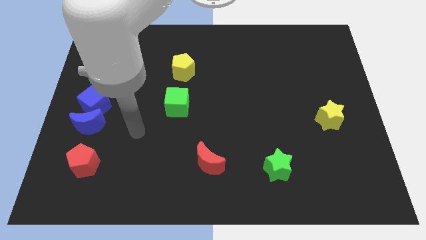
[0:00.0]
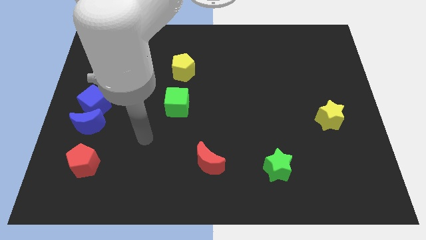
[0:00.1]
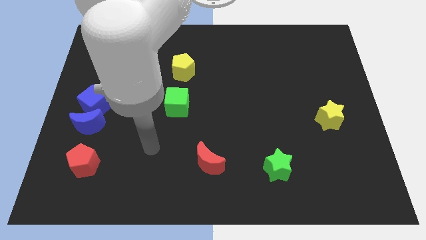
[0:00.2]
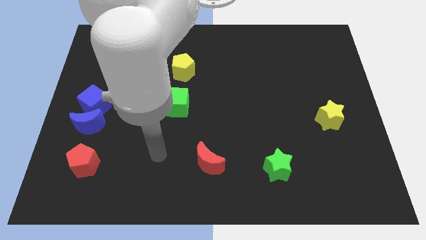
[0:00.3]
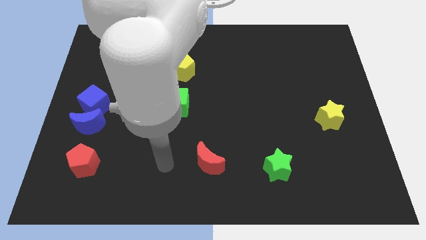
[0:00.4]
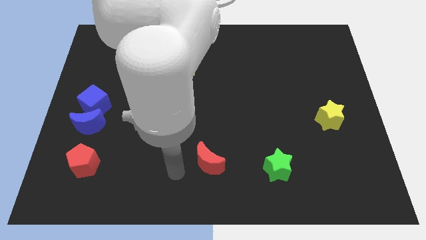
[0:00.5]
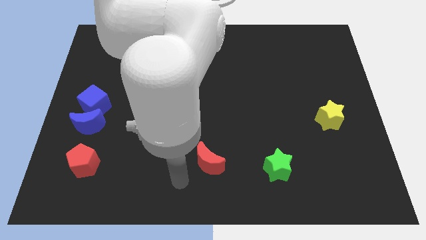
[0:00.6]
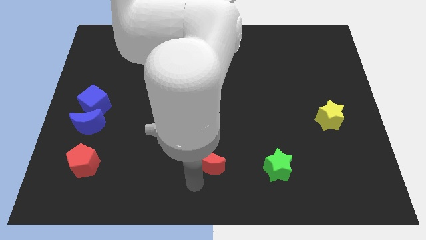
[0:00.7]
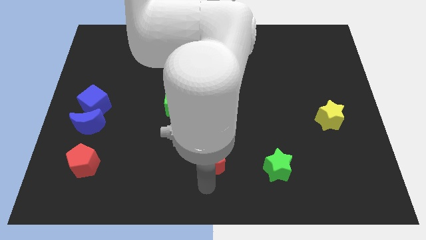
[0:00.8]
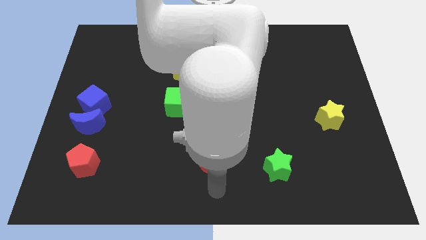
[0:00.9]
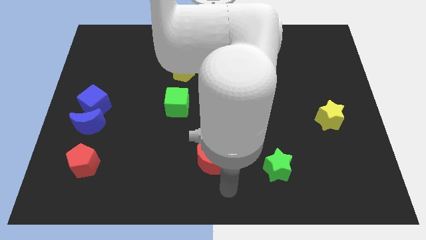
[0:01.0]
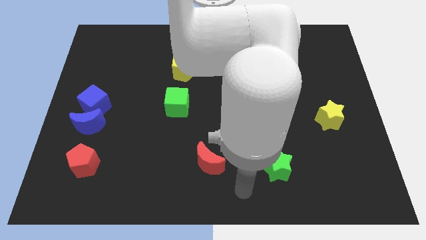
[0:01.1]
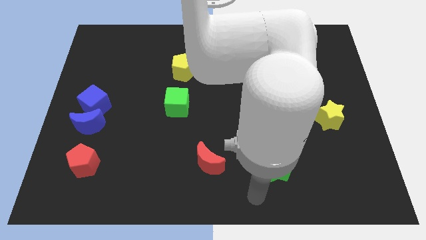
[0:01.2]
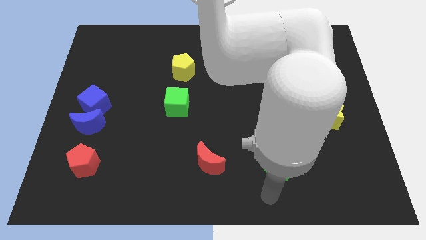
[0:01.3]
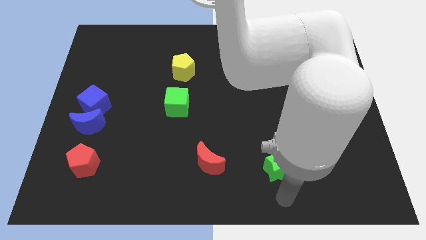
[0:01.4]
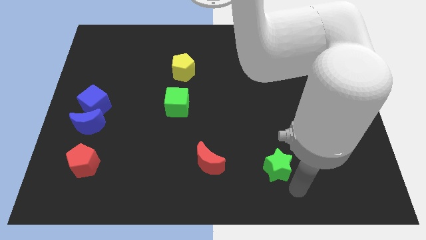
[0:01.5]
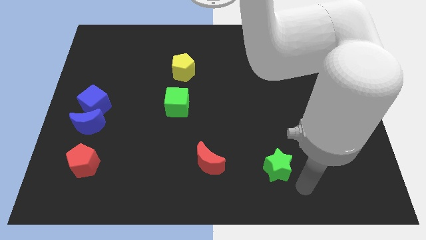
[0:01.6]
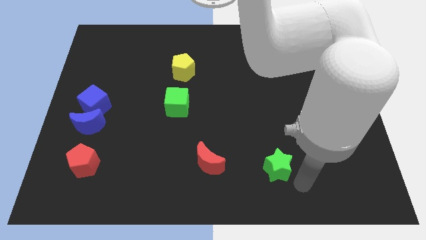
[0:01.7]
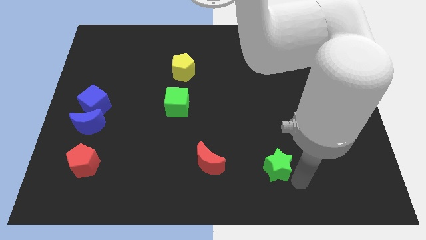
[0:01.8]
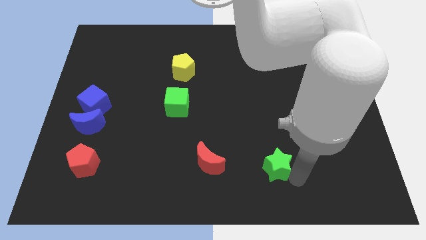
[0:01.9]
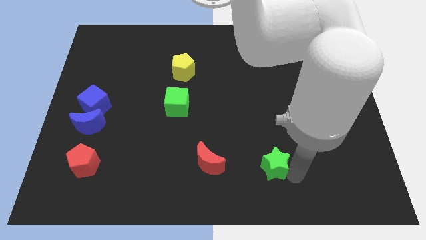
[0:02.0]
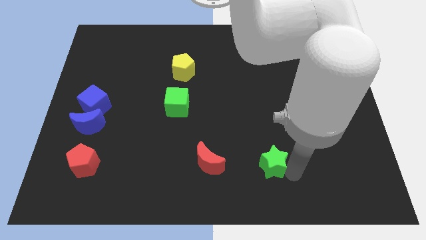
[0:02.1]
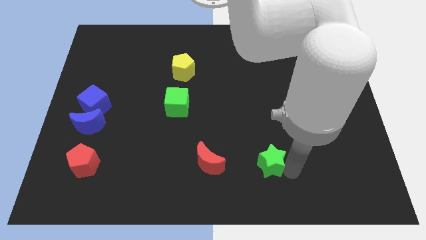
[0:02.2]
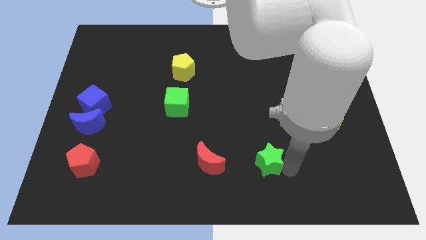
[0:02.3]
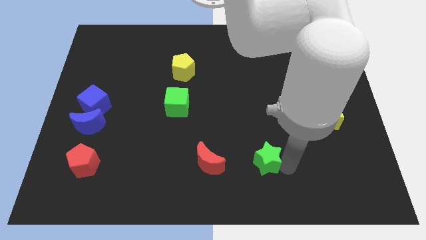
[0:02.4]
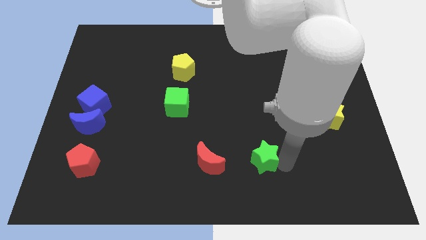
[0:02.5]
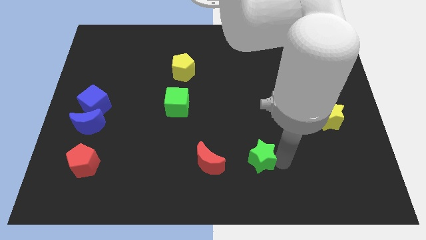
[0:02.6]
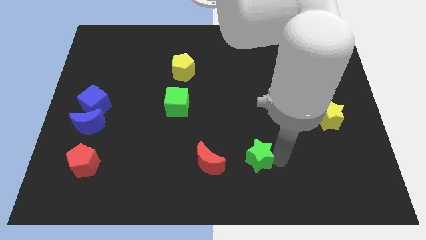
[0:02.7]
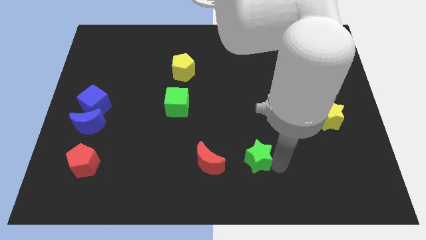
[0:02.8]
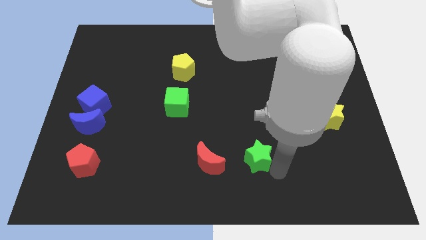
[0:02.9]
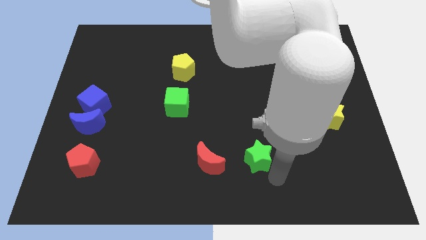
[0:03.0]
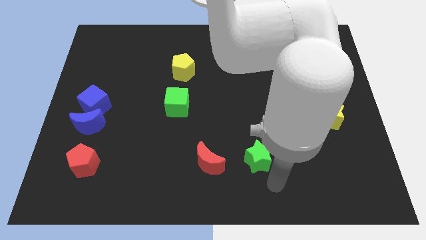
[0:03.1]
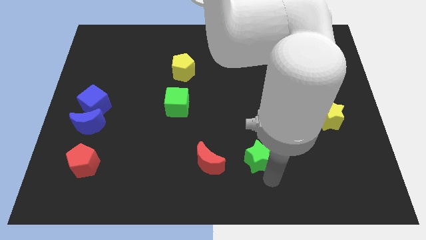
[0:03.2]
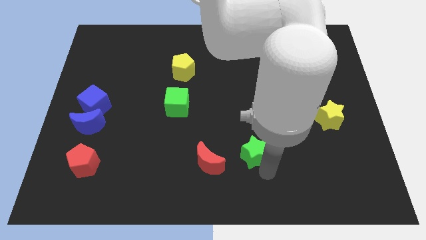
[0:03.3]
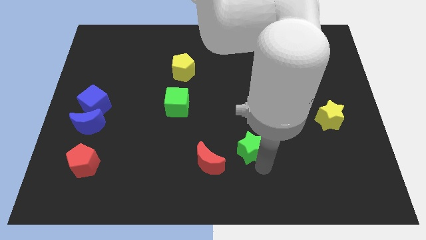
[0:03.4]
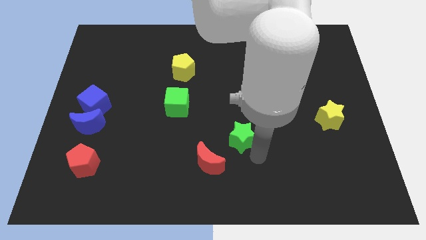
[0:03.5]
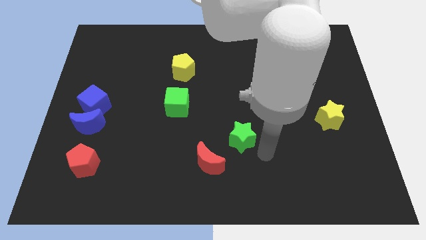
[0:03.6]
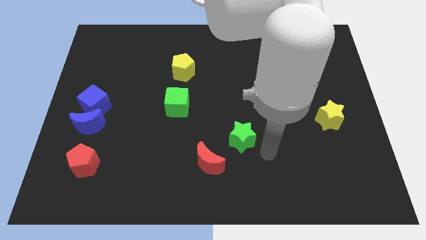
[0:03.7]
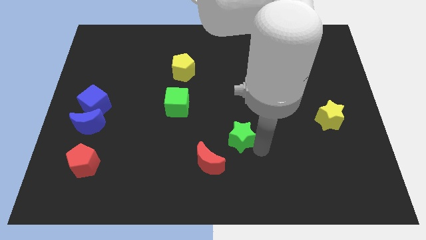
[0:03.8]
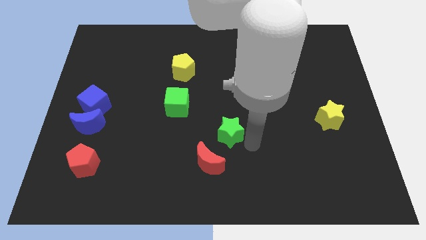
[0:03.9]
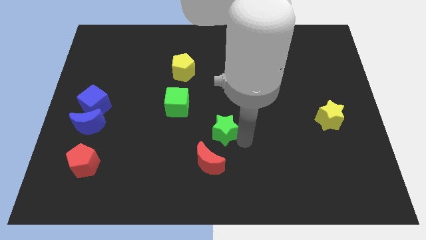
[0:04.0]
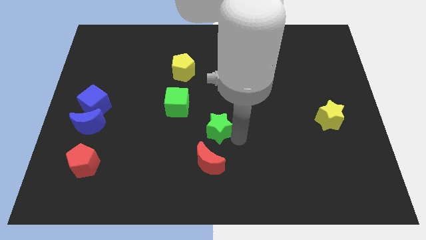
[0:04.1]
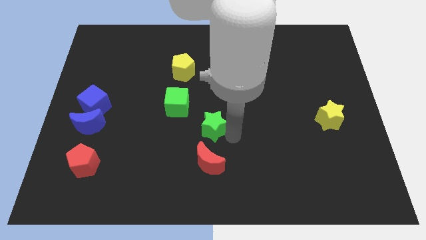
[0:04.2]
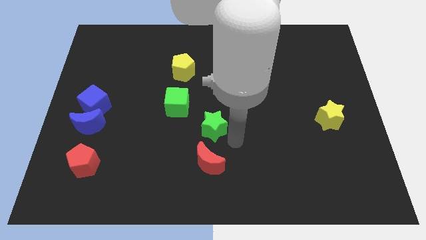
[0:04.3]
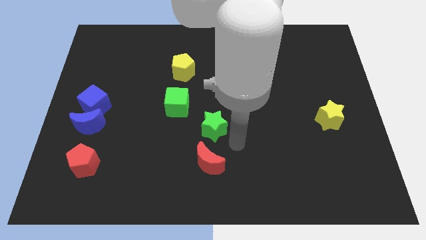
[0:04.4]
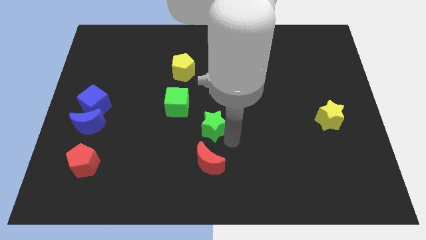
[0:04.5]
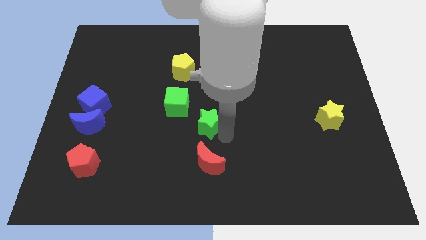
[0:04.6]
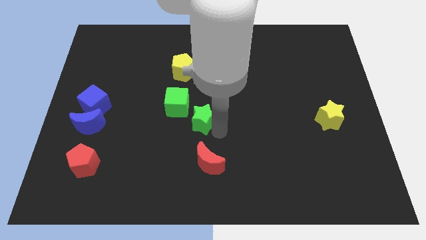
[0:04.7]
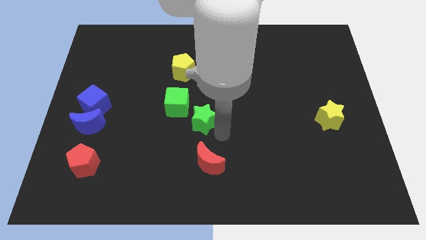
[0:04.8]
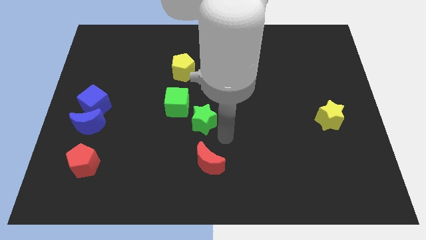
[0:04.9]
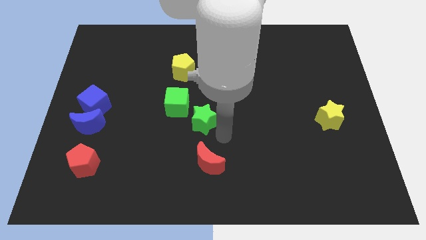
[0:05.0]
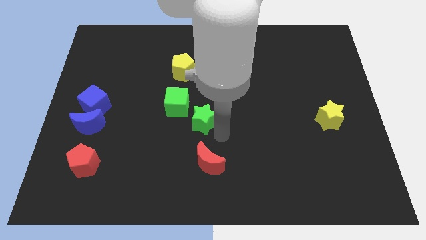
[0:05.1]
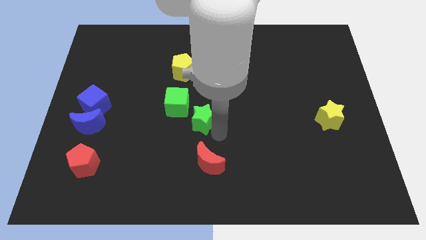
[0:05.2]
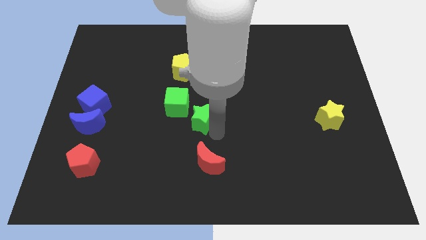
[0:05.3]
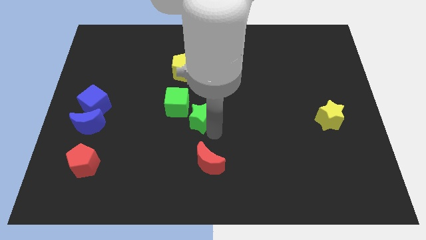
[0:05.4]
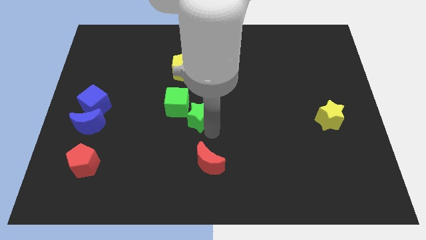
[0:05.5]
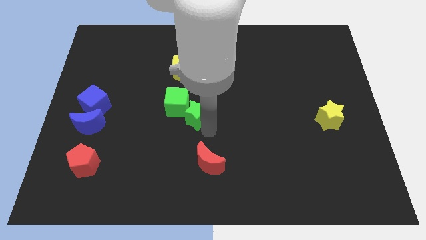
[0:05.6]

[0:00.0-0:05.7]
put the green star close to the green cube

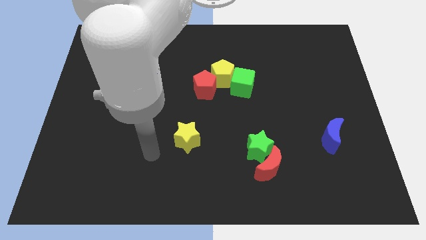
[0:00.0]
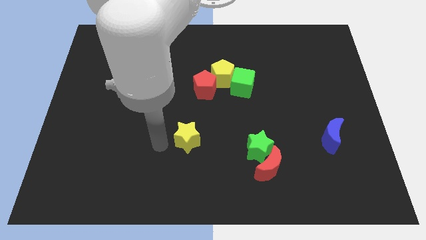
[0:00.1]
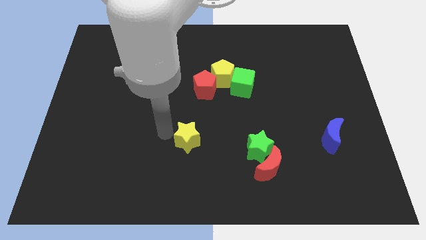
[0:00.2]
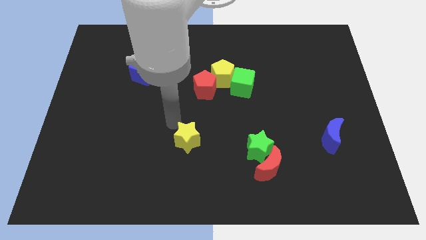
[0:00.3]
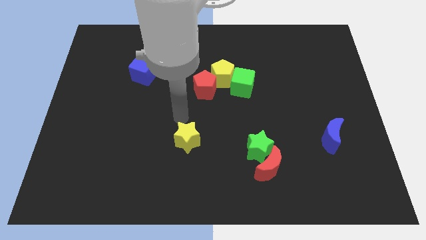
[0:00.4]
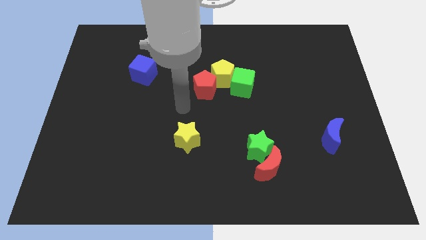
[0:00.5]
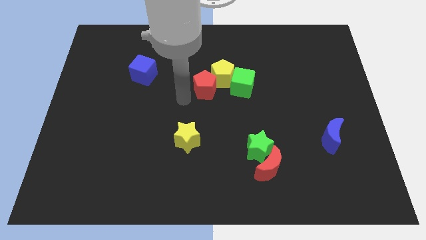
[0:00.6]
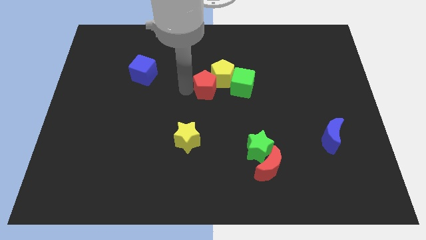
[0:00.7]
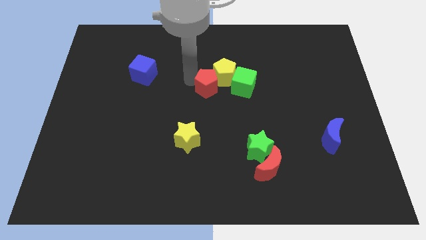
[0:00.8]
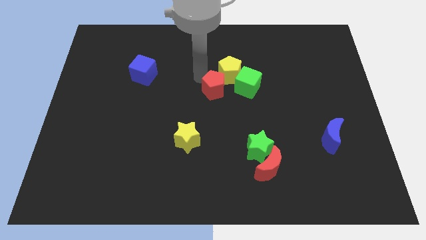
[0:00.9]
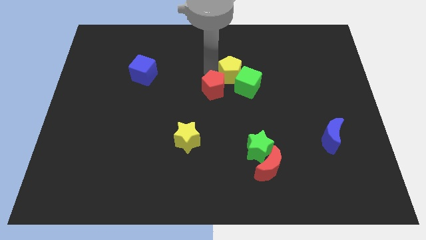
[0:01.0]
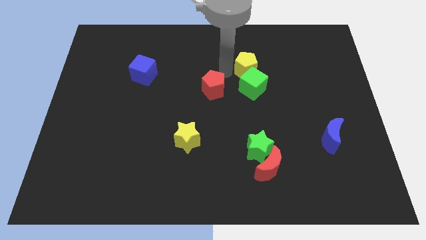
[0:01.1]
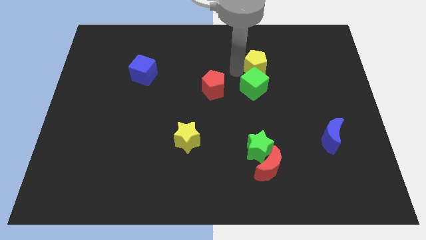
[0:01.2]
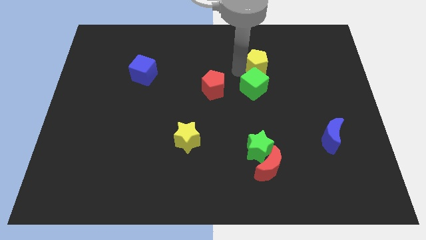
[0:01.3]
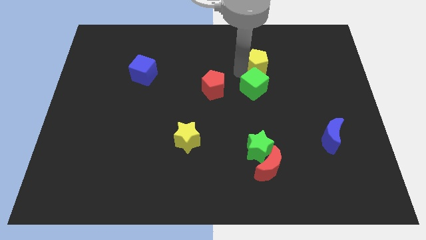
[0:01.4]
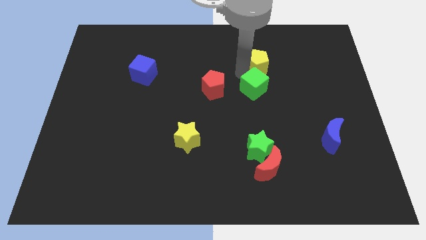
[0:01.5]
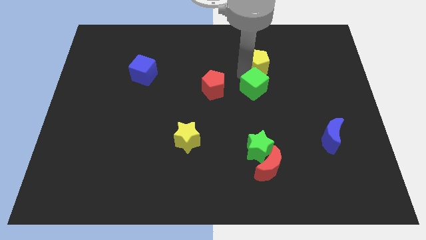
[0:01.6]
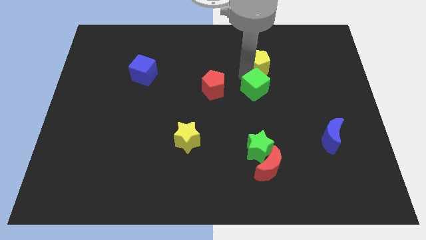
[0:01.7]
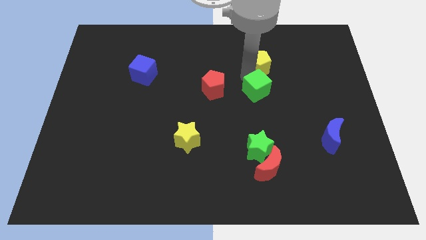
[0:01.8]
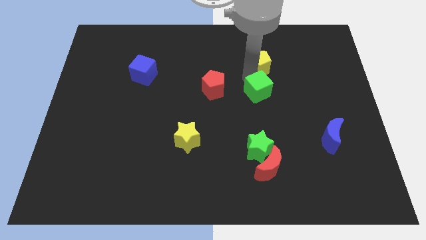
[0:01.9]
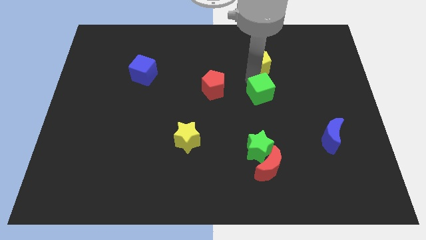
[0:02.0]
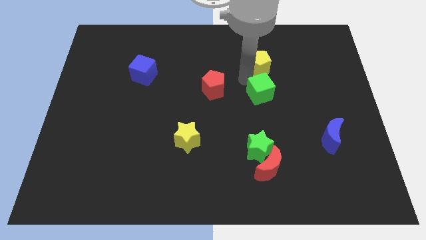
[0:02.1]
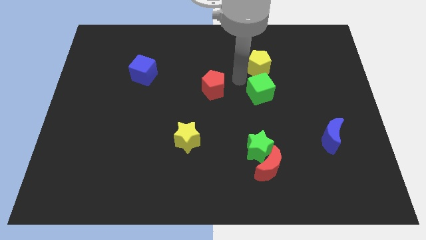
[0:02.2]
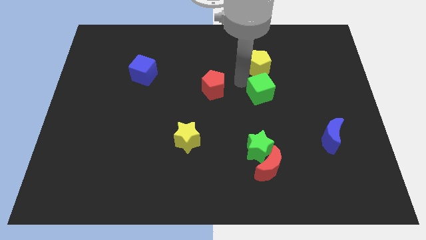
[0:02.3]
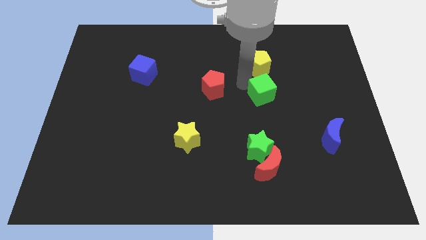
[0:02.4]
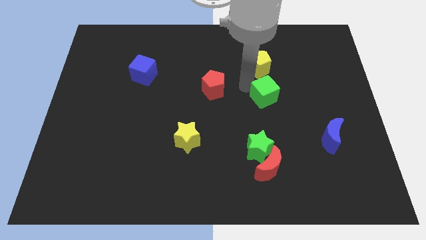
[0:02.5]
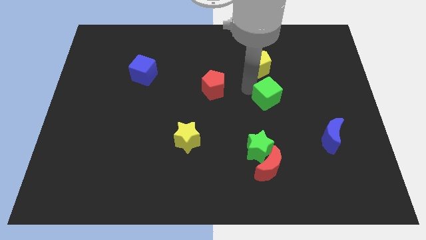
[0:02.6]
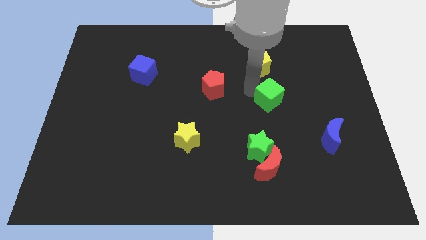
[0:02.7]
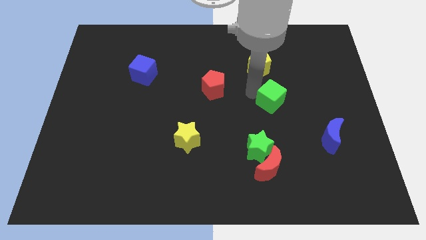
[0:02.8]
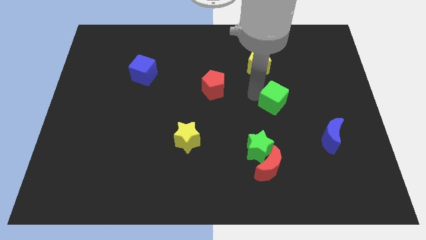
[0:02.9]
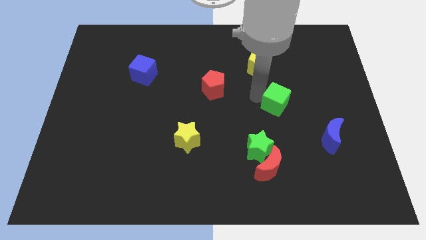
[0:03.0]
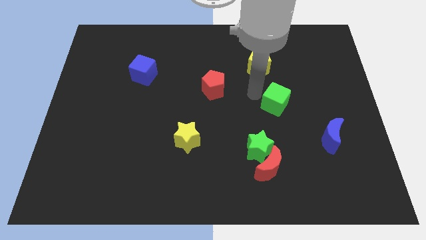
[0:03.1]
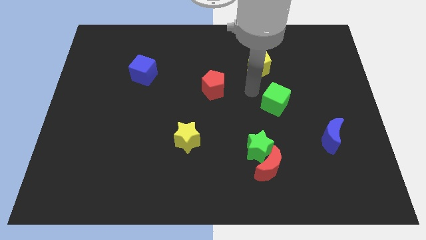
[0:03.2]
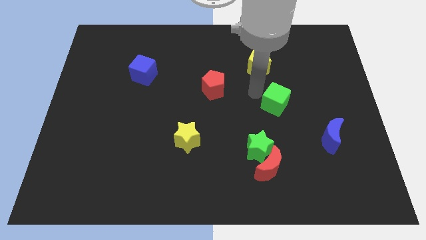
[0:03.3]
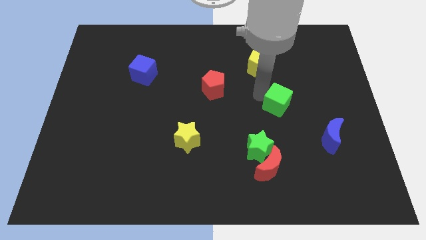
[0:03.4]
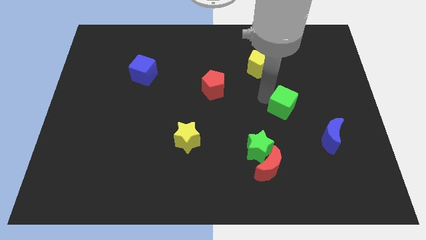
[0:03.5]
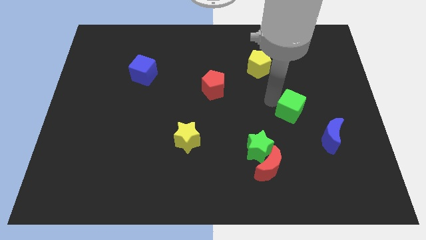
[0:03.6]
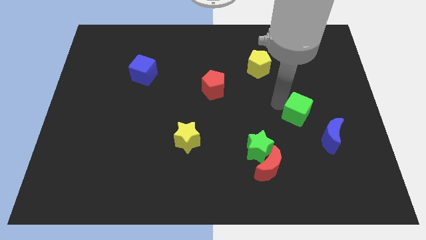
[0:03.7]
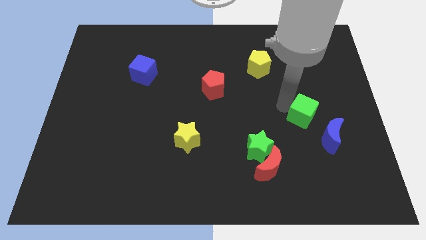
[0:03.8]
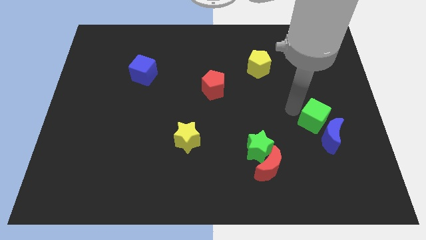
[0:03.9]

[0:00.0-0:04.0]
push the green cube to the blue moon
